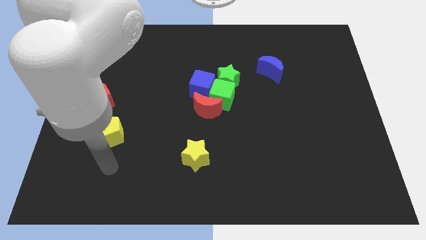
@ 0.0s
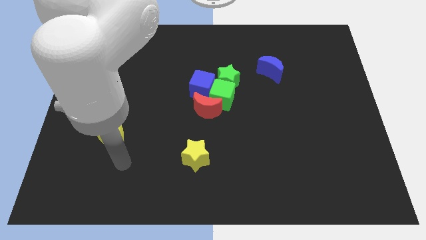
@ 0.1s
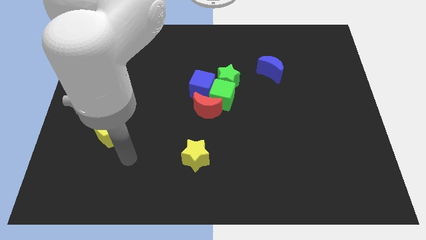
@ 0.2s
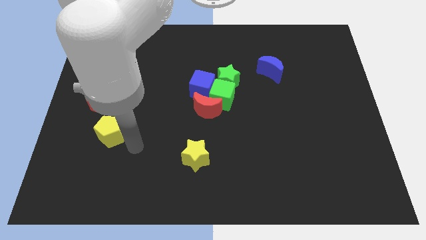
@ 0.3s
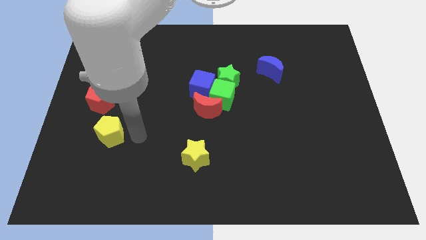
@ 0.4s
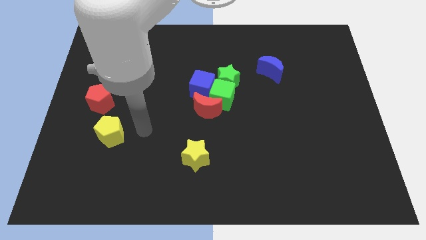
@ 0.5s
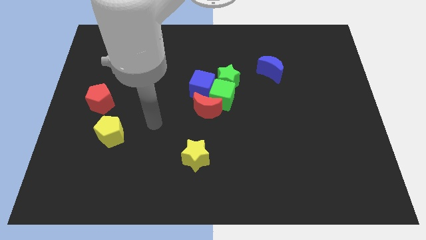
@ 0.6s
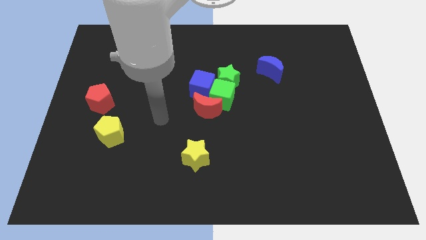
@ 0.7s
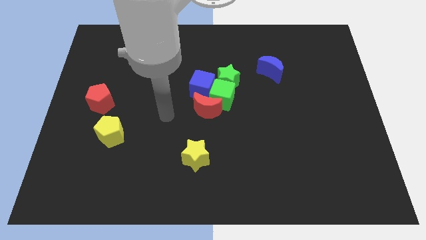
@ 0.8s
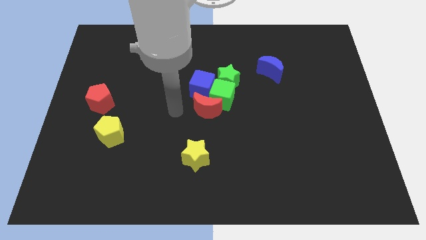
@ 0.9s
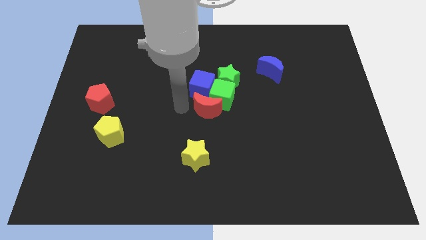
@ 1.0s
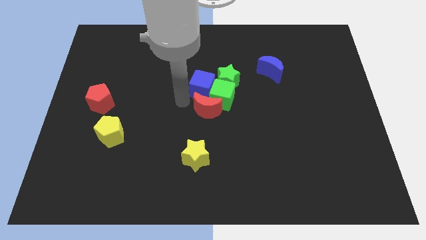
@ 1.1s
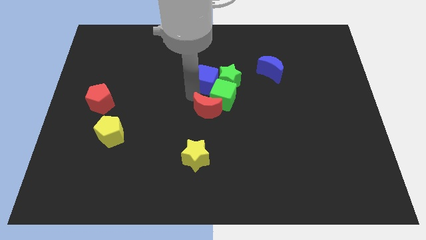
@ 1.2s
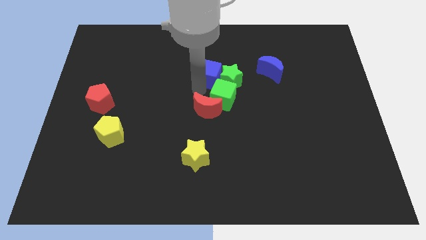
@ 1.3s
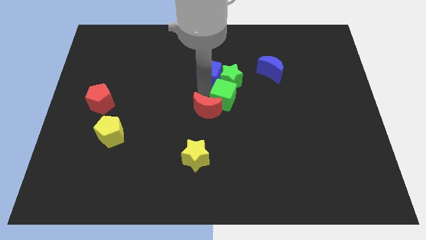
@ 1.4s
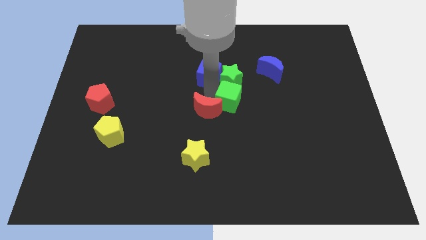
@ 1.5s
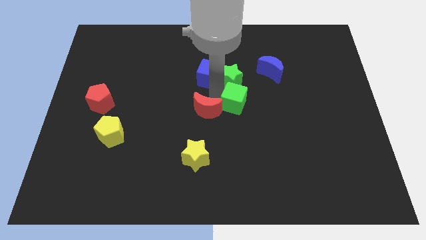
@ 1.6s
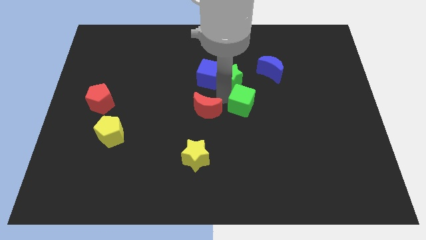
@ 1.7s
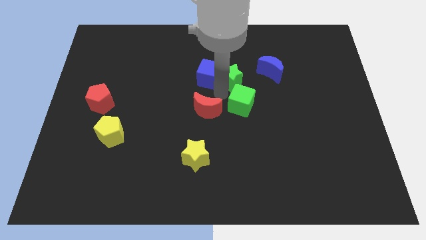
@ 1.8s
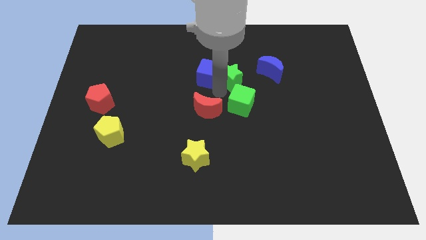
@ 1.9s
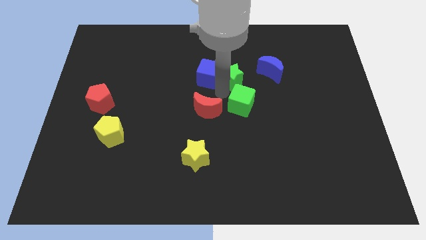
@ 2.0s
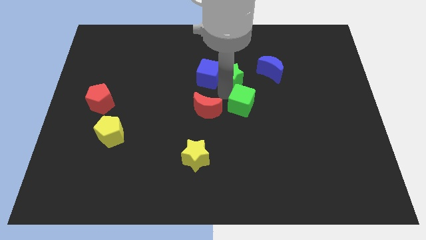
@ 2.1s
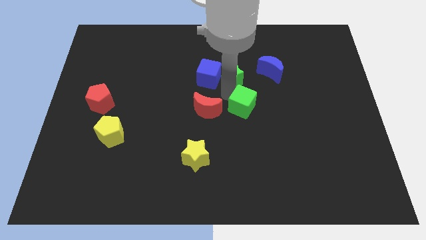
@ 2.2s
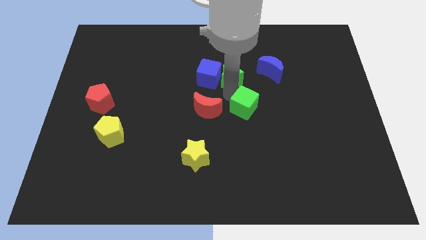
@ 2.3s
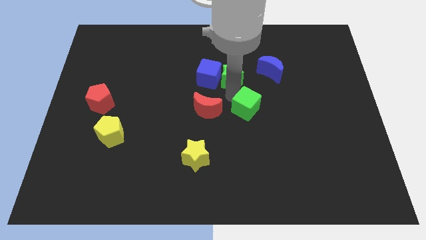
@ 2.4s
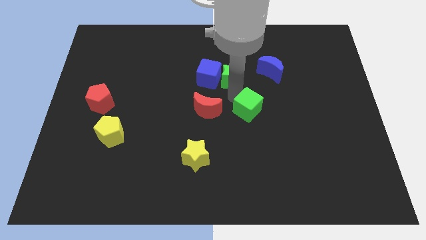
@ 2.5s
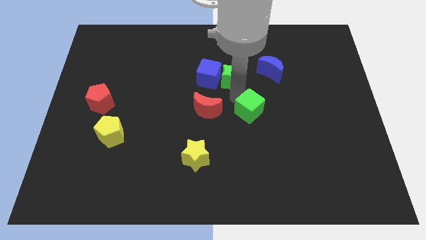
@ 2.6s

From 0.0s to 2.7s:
move the green cube away from the group of blocks

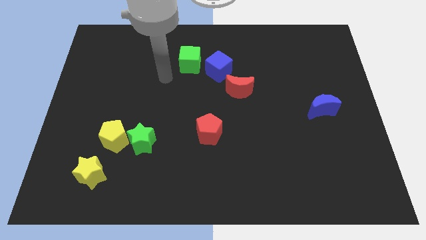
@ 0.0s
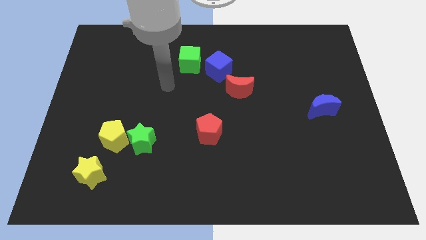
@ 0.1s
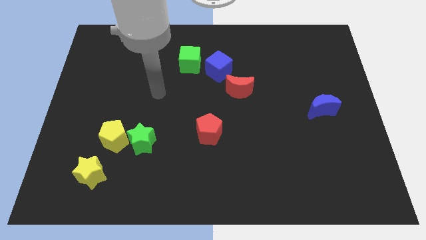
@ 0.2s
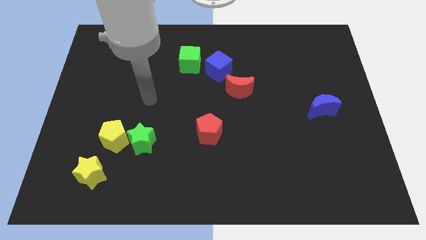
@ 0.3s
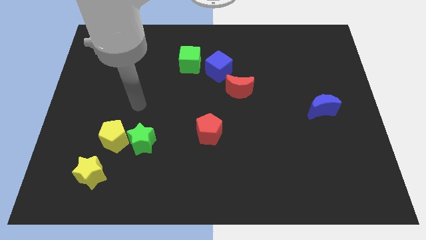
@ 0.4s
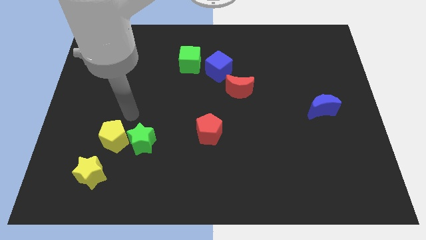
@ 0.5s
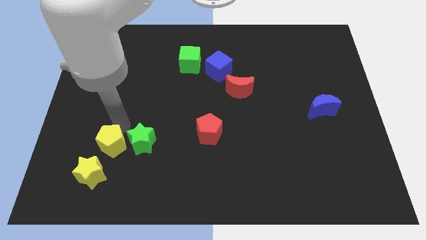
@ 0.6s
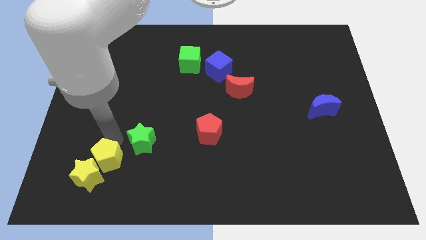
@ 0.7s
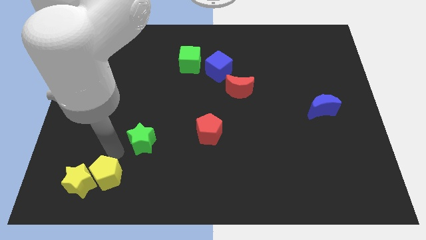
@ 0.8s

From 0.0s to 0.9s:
pull the green star apart from the yellow pentagon

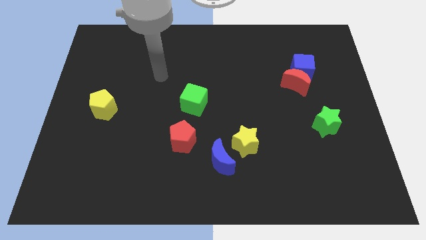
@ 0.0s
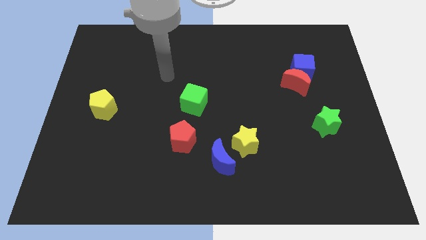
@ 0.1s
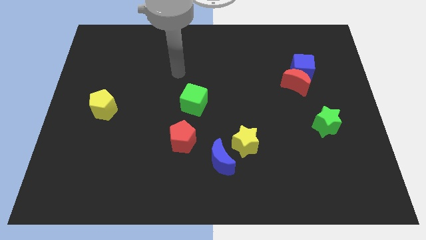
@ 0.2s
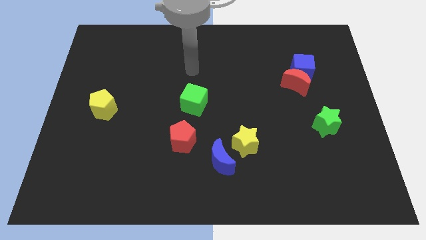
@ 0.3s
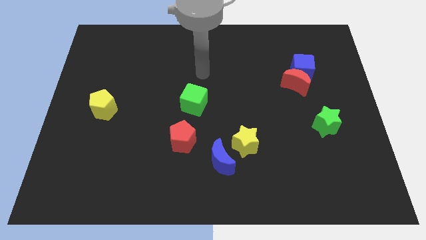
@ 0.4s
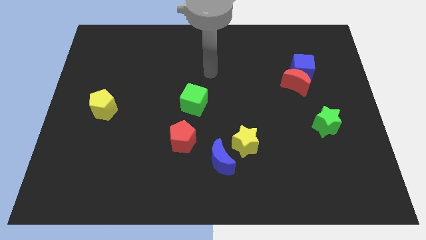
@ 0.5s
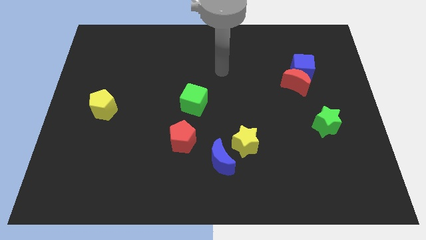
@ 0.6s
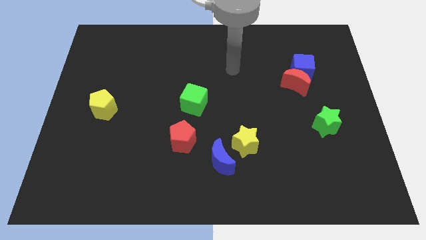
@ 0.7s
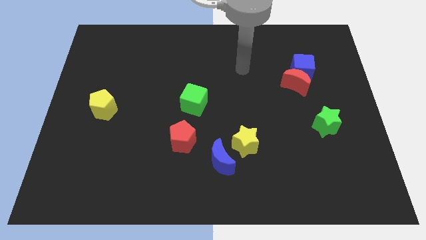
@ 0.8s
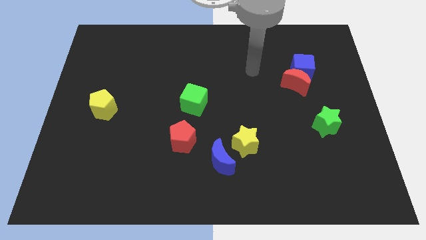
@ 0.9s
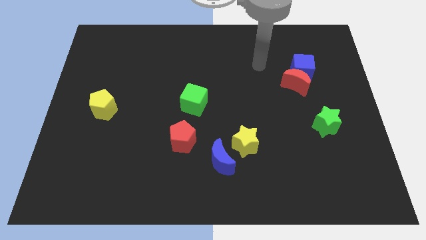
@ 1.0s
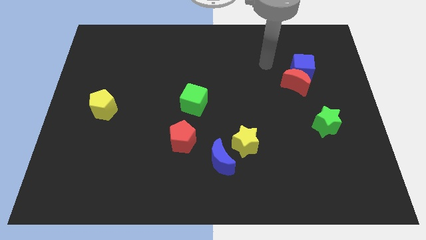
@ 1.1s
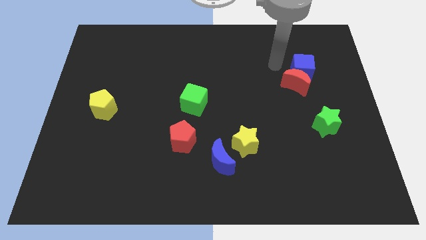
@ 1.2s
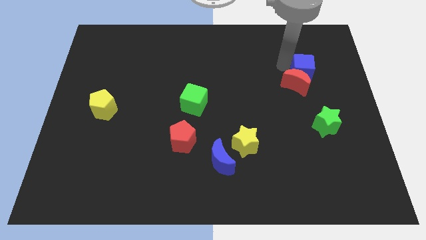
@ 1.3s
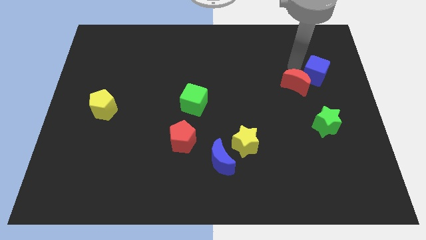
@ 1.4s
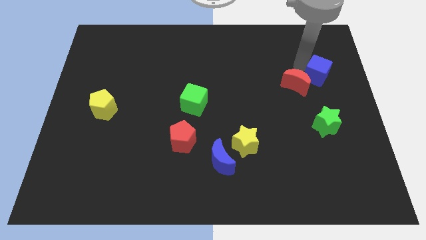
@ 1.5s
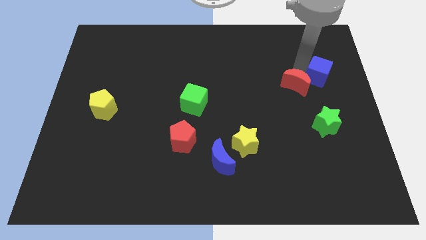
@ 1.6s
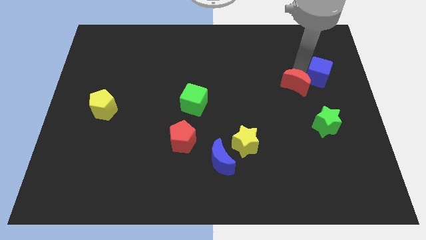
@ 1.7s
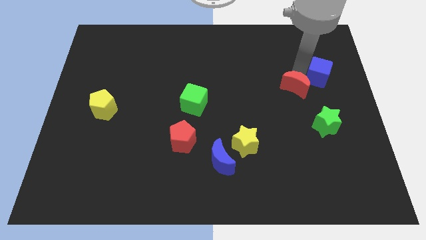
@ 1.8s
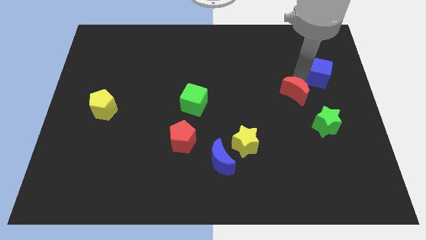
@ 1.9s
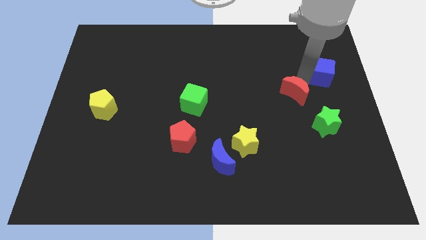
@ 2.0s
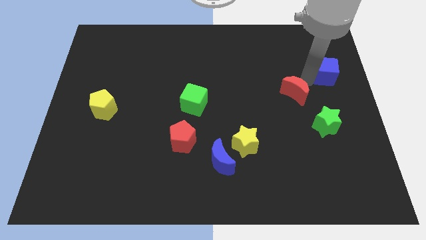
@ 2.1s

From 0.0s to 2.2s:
move the red moon away from the blue cube

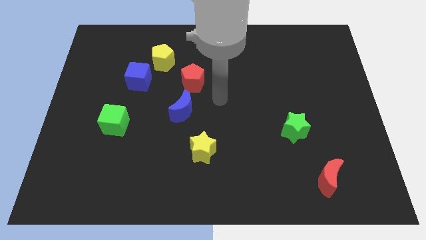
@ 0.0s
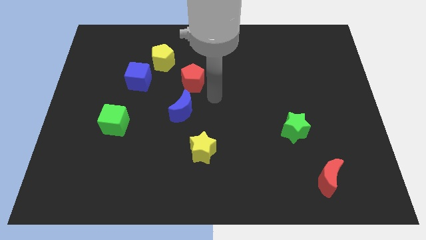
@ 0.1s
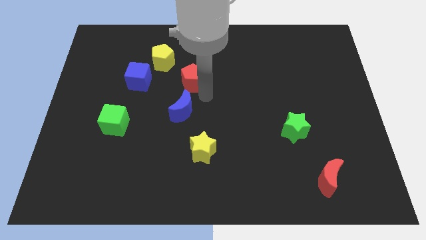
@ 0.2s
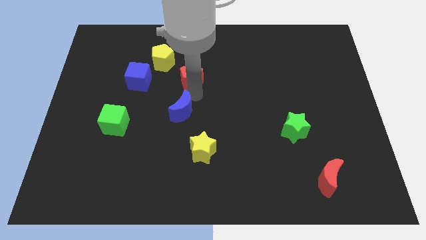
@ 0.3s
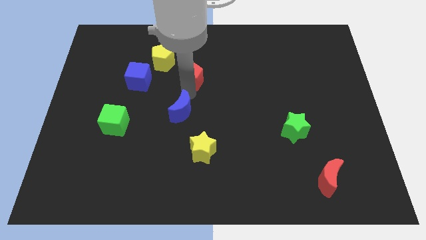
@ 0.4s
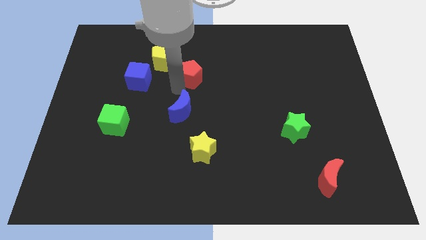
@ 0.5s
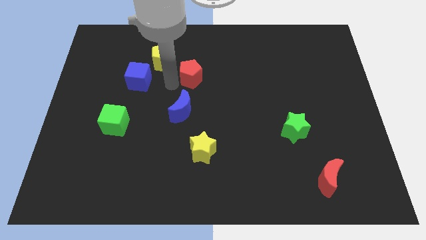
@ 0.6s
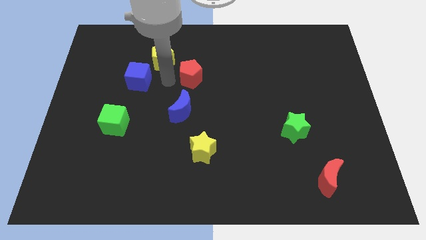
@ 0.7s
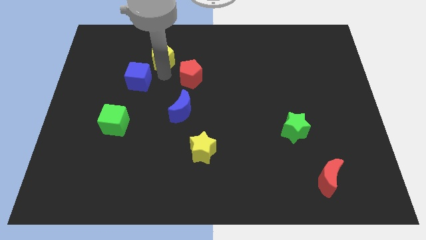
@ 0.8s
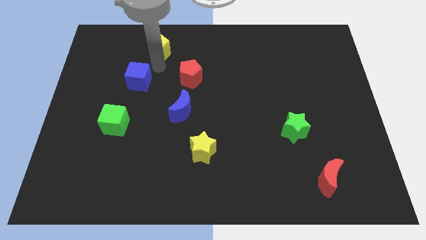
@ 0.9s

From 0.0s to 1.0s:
move the blue cube away from the yellow pentagon

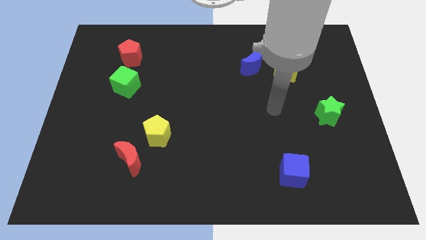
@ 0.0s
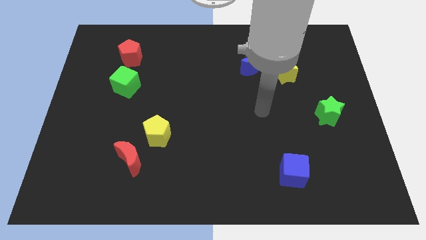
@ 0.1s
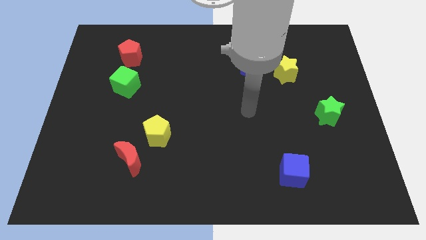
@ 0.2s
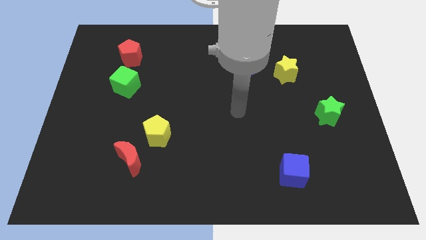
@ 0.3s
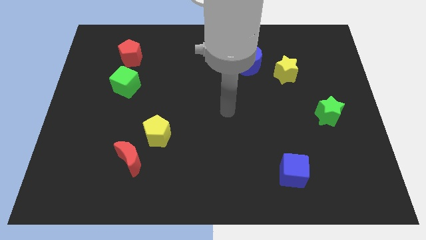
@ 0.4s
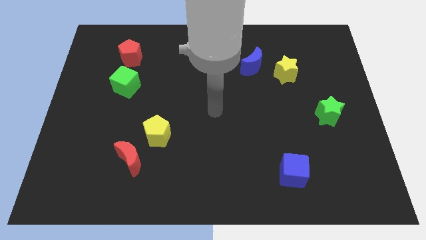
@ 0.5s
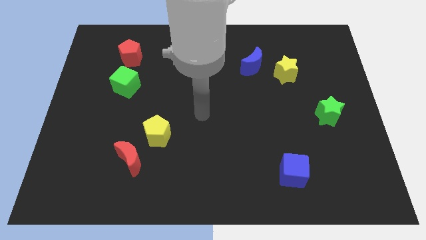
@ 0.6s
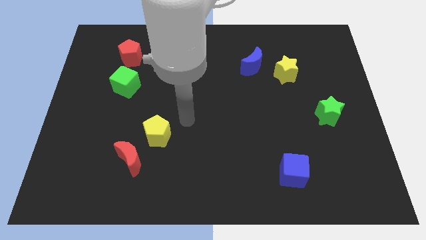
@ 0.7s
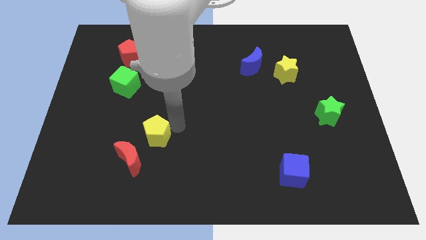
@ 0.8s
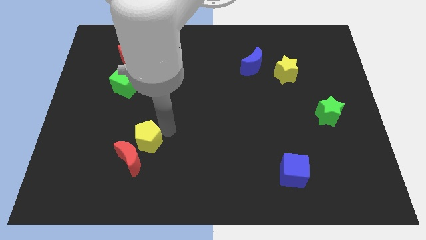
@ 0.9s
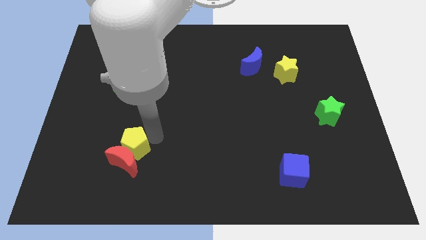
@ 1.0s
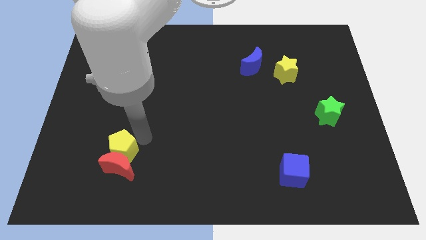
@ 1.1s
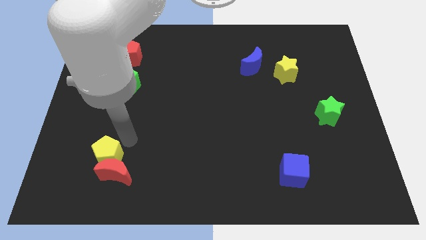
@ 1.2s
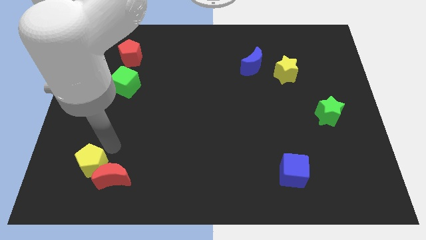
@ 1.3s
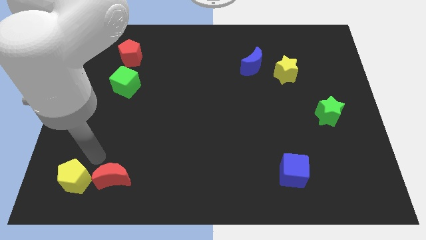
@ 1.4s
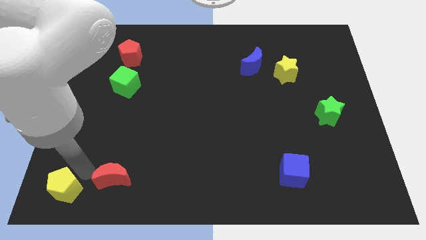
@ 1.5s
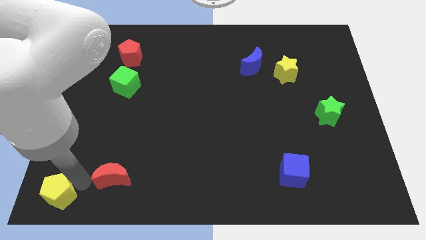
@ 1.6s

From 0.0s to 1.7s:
move the red moon away from the yellow pentagon

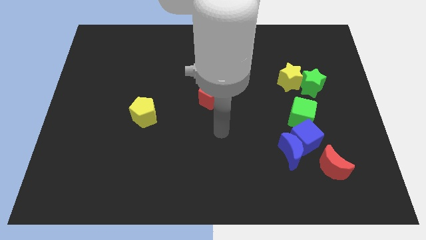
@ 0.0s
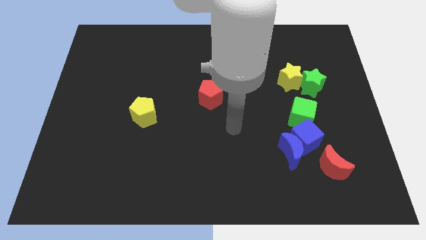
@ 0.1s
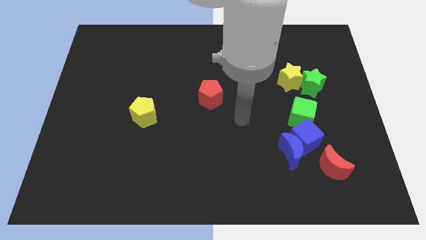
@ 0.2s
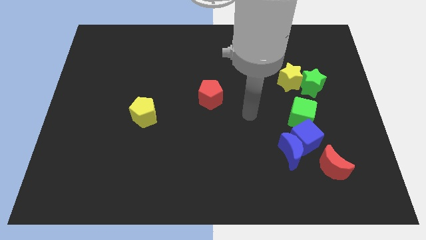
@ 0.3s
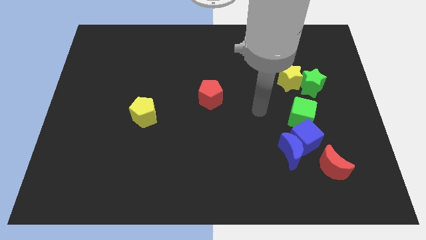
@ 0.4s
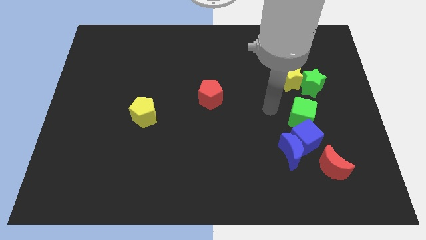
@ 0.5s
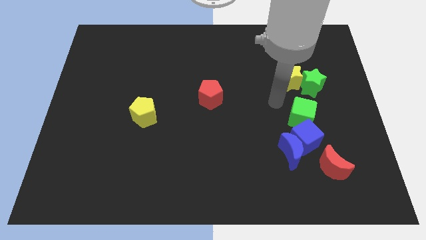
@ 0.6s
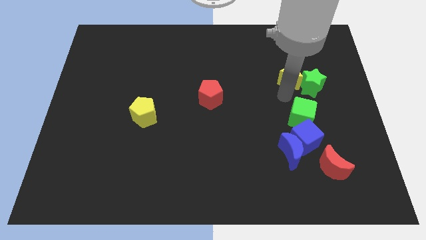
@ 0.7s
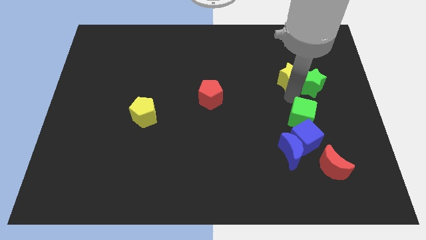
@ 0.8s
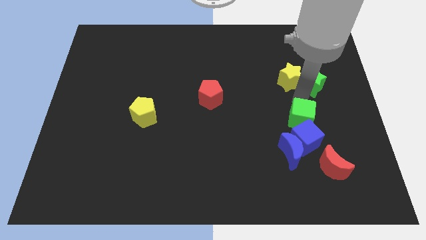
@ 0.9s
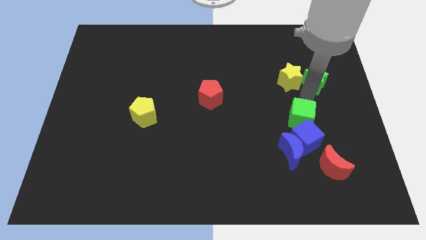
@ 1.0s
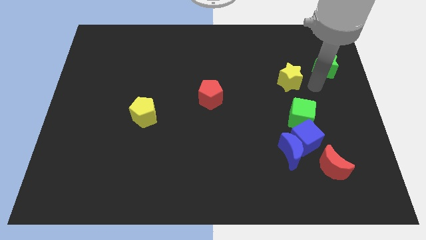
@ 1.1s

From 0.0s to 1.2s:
pull the yellow star apart from the green star
